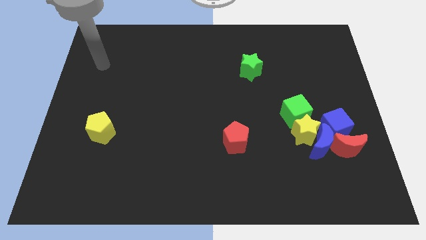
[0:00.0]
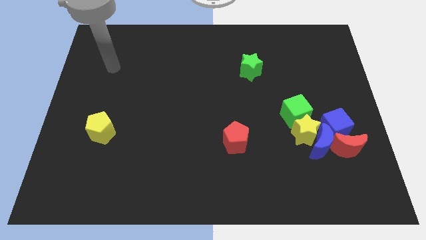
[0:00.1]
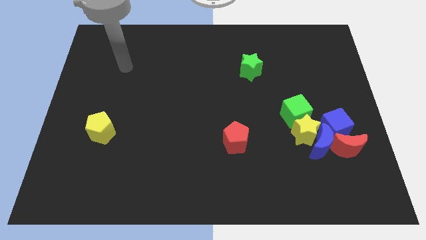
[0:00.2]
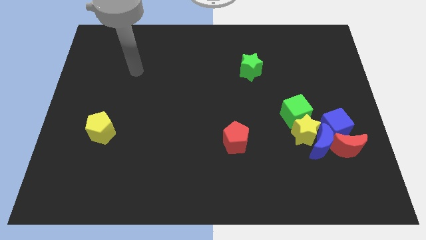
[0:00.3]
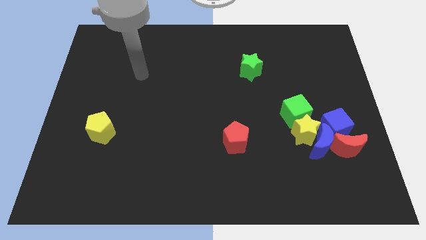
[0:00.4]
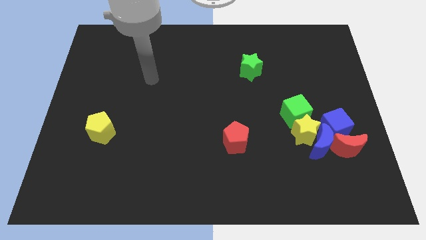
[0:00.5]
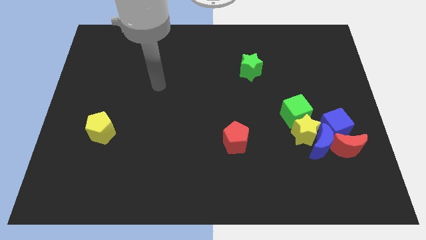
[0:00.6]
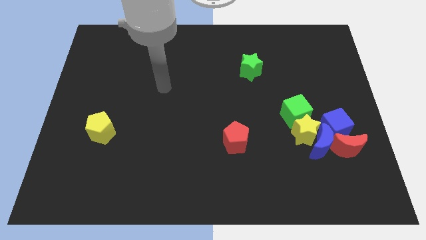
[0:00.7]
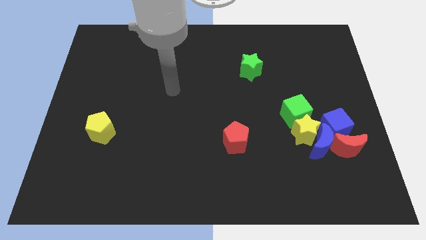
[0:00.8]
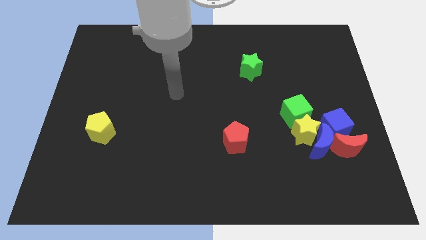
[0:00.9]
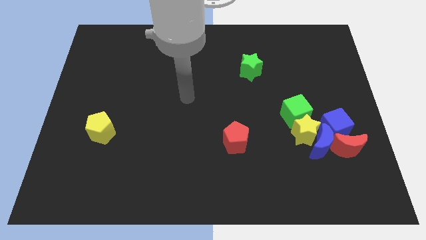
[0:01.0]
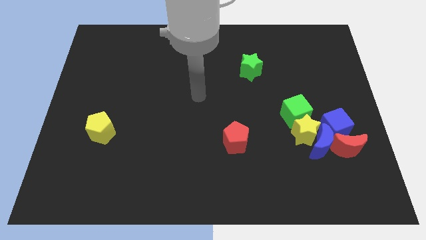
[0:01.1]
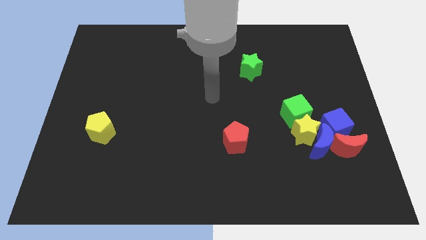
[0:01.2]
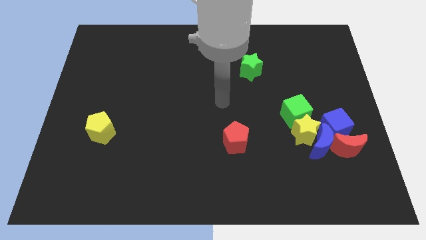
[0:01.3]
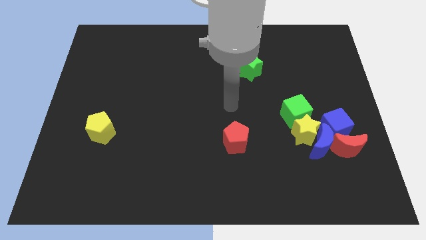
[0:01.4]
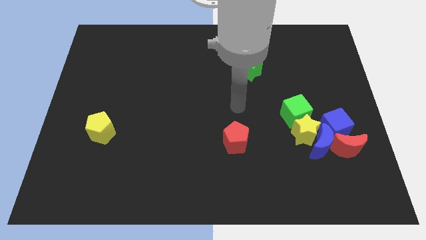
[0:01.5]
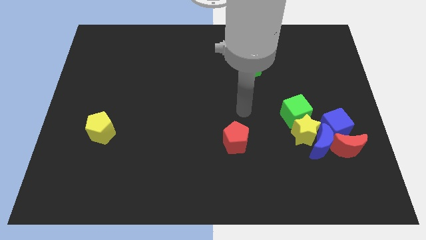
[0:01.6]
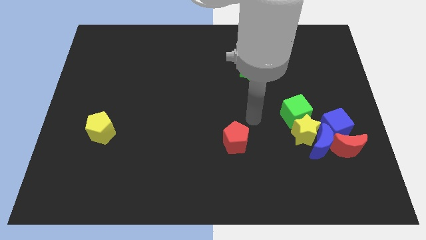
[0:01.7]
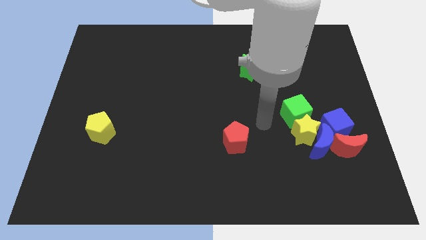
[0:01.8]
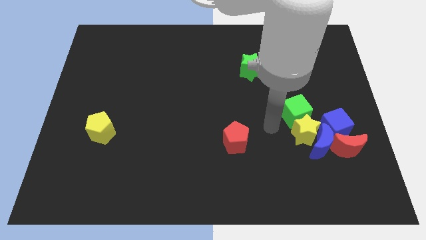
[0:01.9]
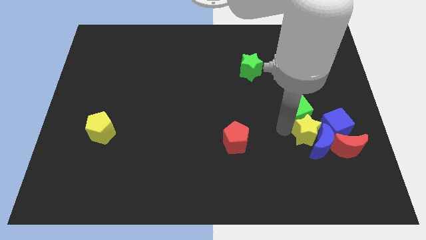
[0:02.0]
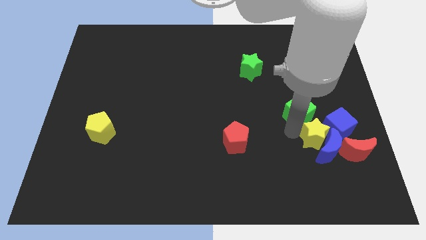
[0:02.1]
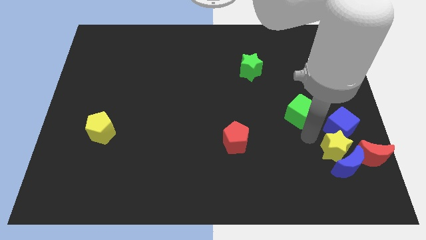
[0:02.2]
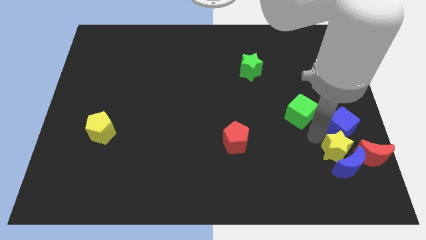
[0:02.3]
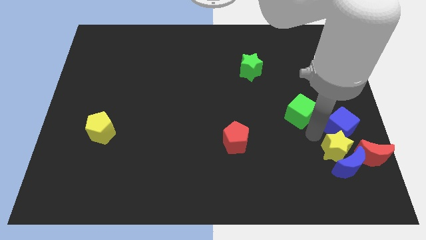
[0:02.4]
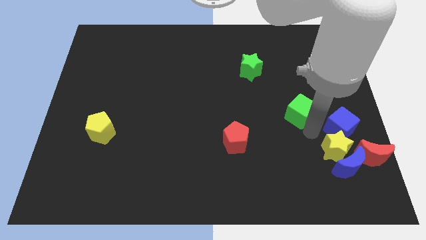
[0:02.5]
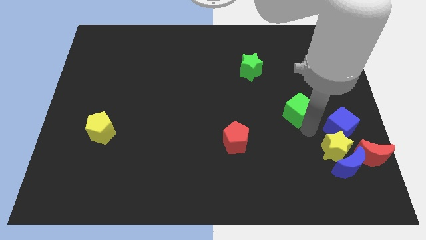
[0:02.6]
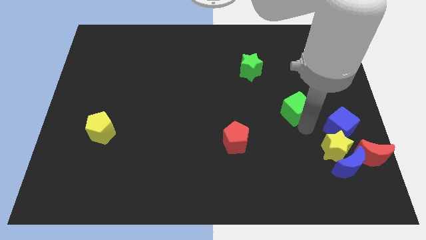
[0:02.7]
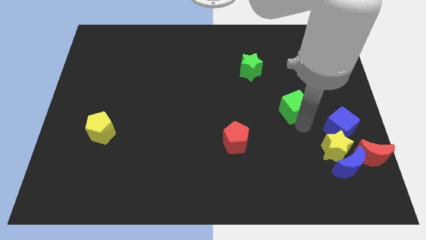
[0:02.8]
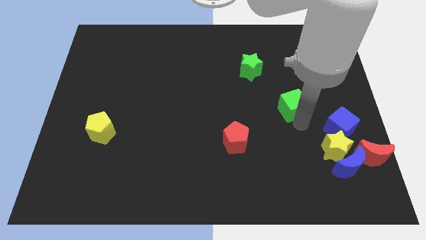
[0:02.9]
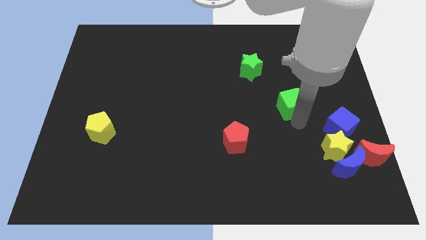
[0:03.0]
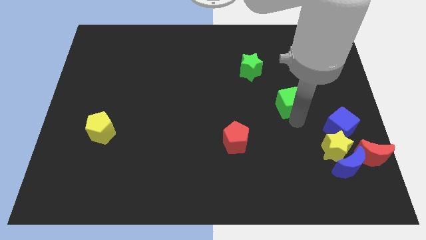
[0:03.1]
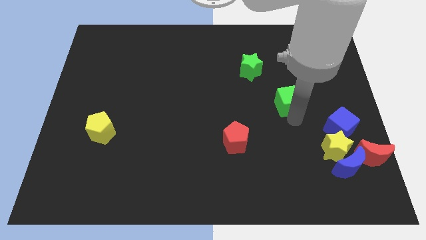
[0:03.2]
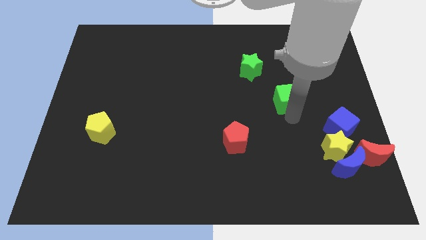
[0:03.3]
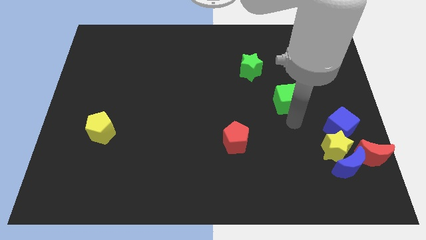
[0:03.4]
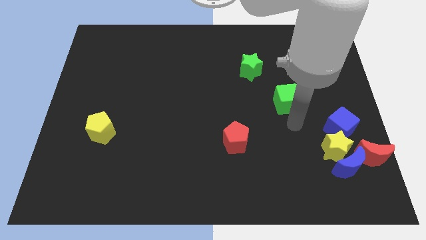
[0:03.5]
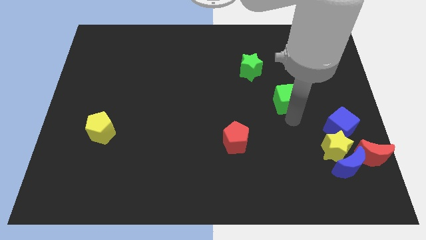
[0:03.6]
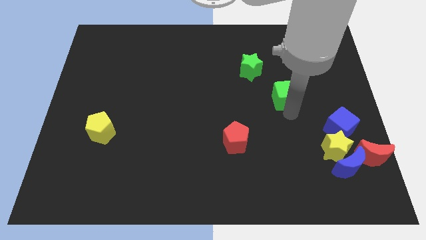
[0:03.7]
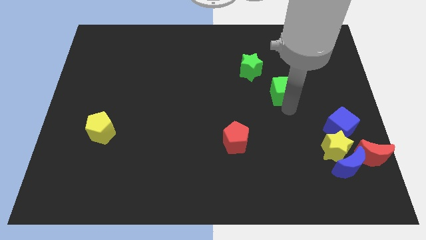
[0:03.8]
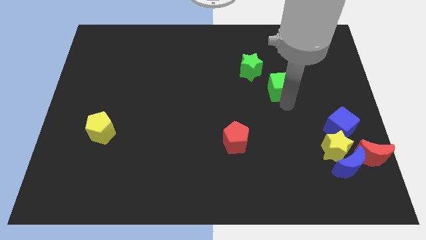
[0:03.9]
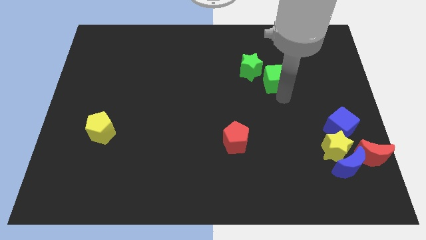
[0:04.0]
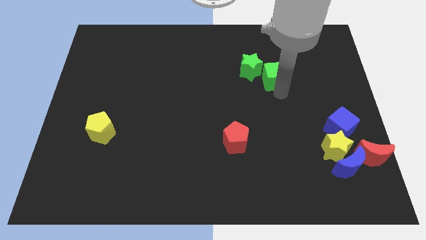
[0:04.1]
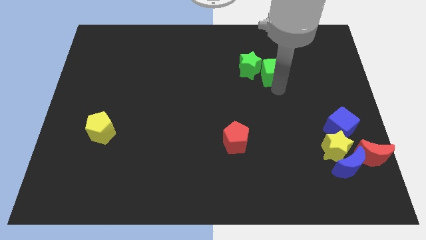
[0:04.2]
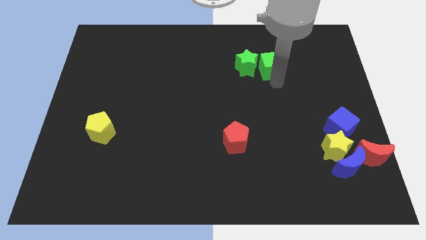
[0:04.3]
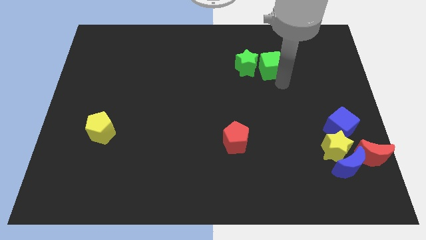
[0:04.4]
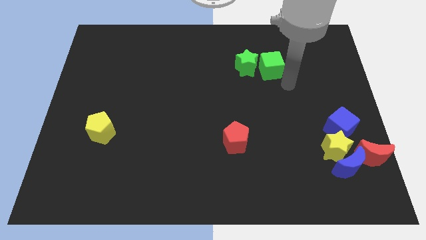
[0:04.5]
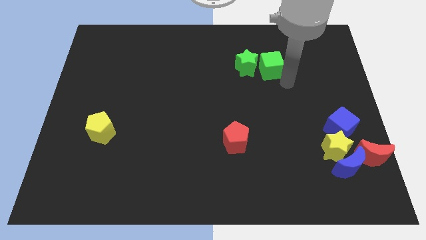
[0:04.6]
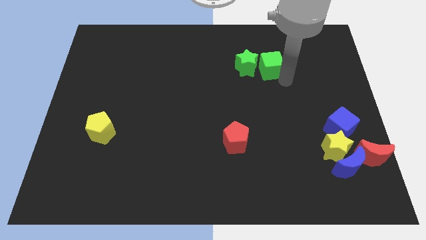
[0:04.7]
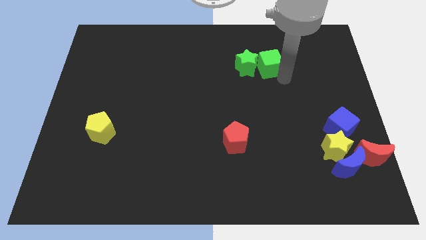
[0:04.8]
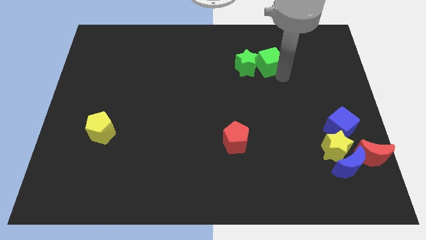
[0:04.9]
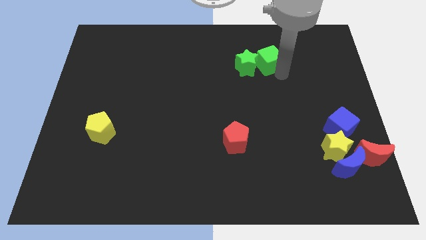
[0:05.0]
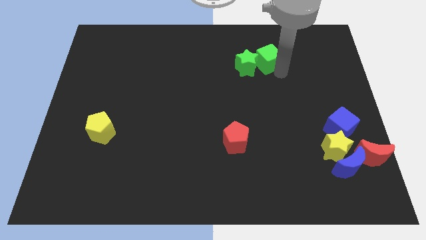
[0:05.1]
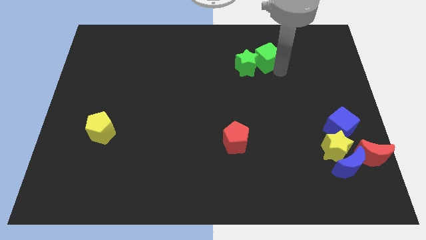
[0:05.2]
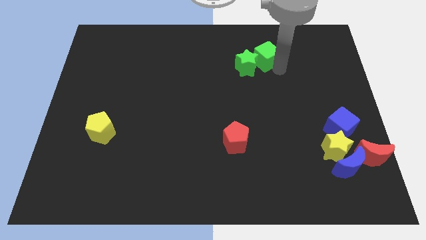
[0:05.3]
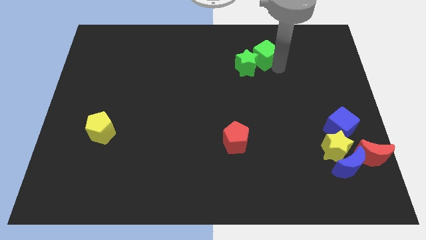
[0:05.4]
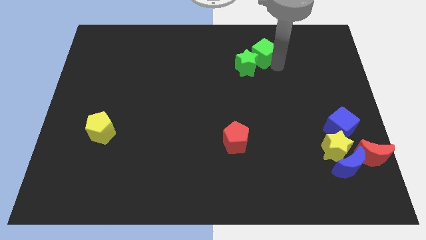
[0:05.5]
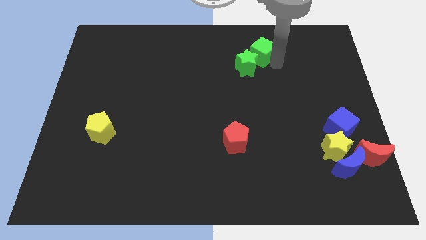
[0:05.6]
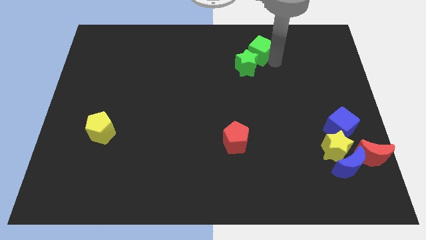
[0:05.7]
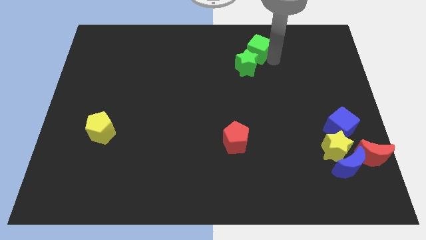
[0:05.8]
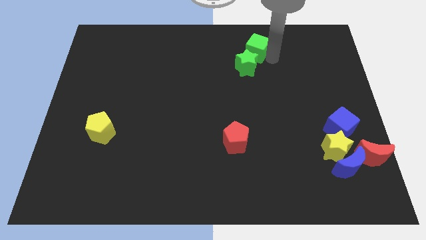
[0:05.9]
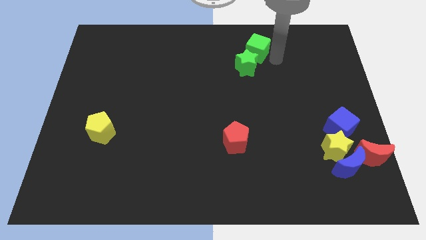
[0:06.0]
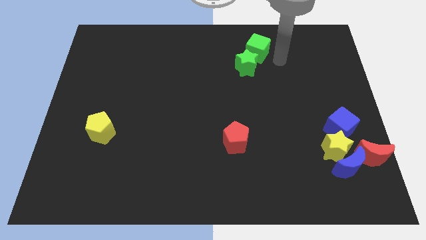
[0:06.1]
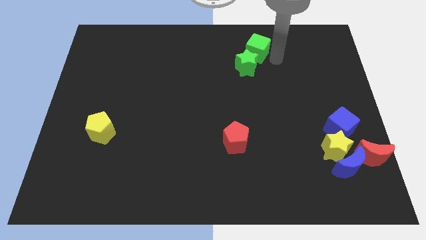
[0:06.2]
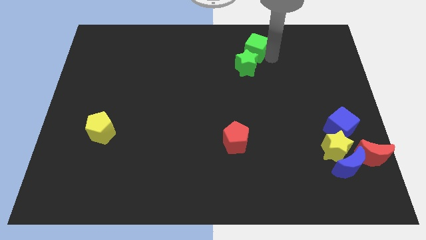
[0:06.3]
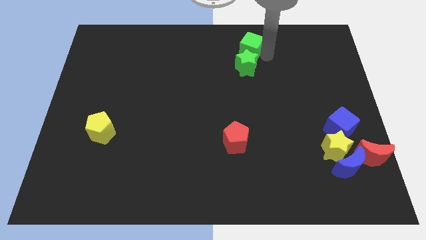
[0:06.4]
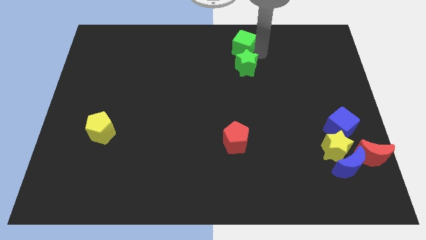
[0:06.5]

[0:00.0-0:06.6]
put the green cube to the top
